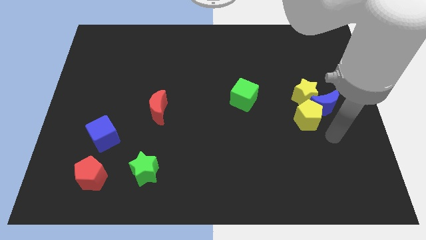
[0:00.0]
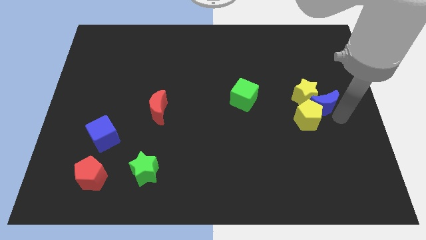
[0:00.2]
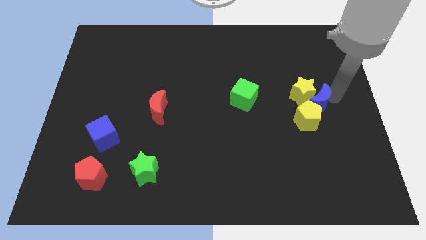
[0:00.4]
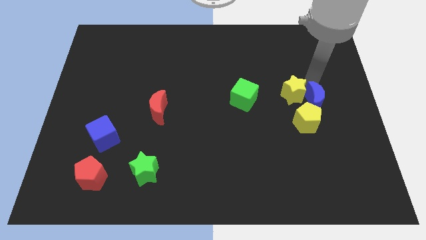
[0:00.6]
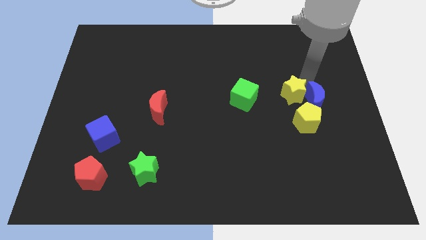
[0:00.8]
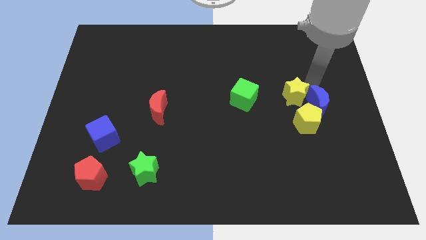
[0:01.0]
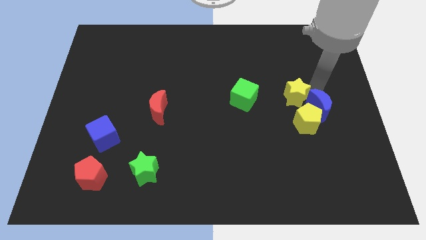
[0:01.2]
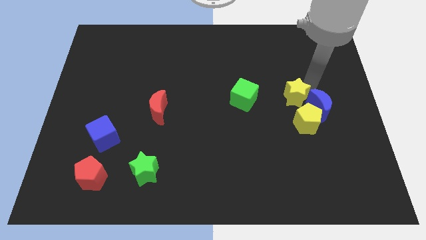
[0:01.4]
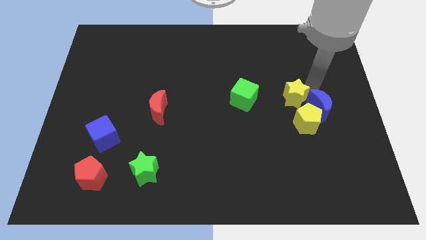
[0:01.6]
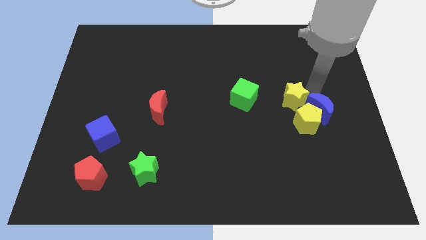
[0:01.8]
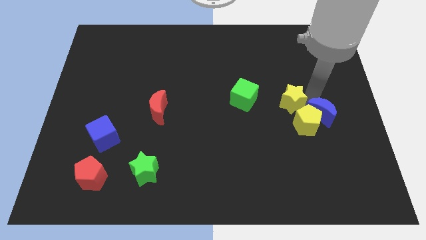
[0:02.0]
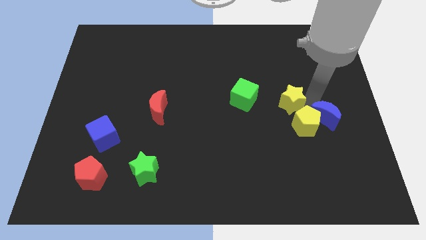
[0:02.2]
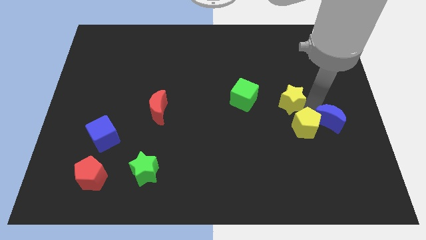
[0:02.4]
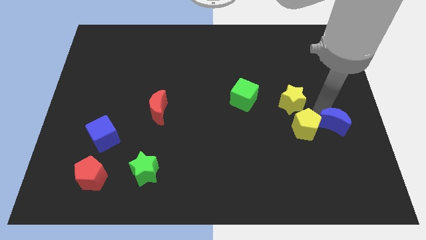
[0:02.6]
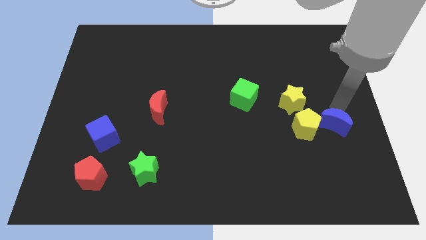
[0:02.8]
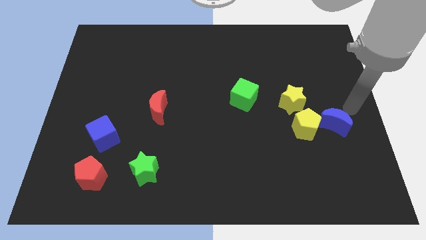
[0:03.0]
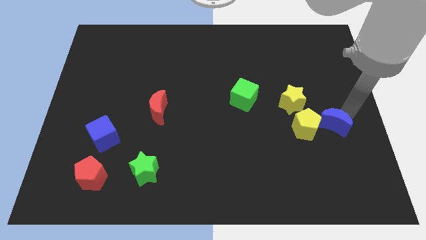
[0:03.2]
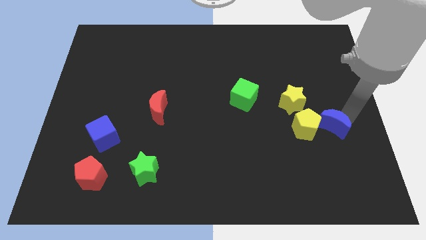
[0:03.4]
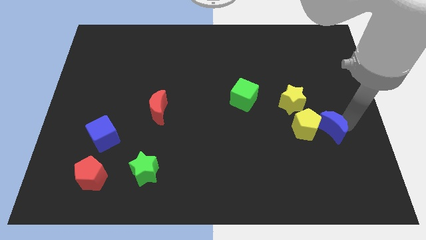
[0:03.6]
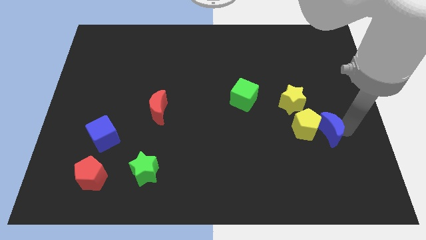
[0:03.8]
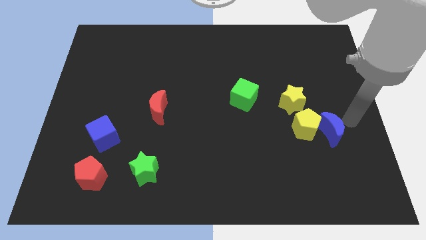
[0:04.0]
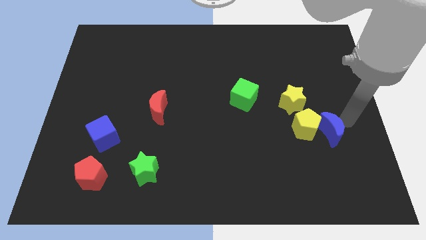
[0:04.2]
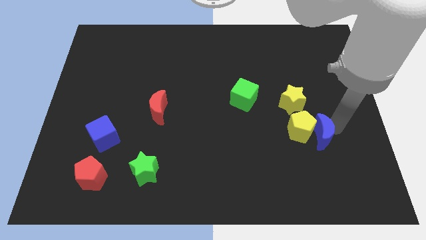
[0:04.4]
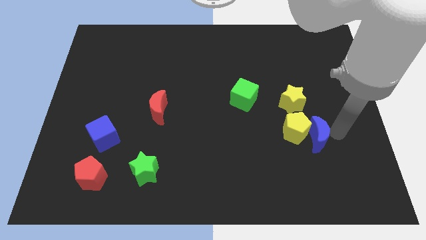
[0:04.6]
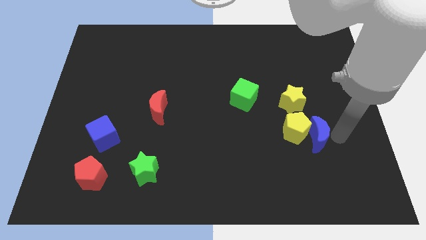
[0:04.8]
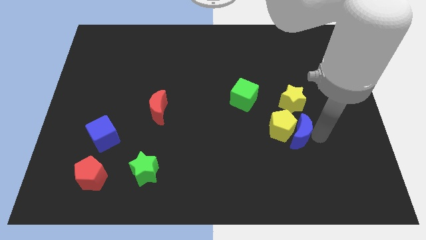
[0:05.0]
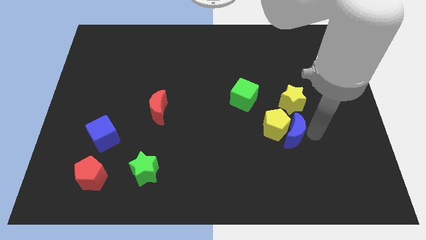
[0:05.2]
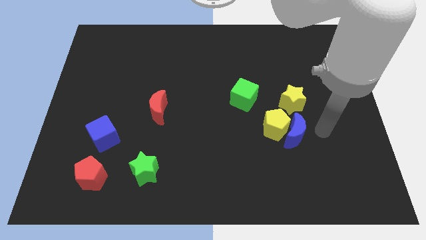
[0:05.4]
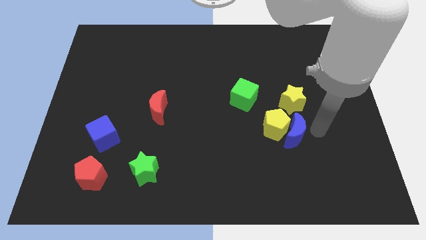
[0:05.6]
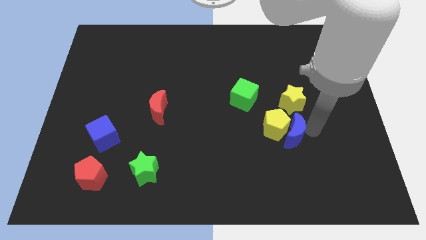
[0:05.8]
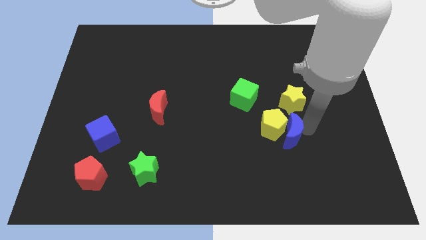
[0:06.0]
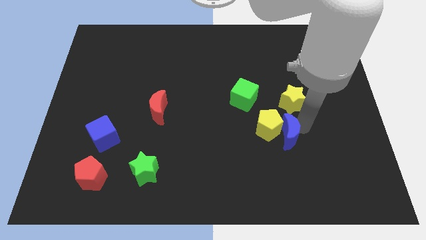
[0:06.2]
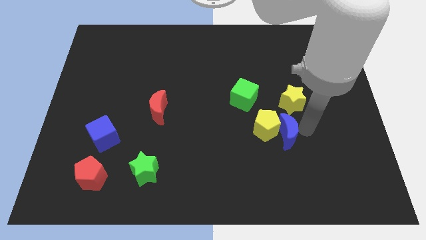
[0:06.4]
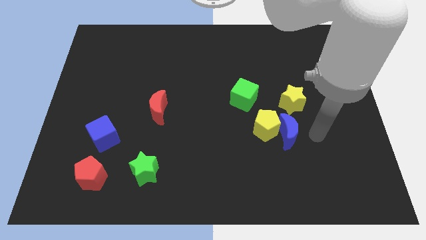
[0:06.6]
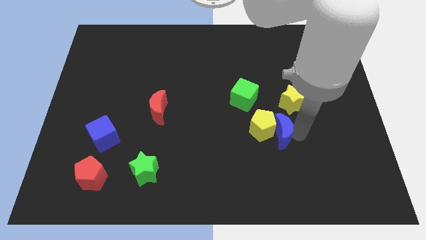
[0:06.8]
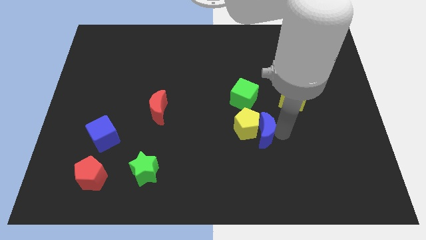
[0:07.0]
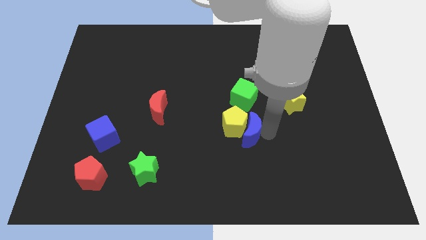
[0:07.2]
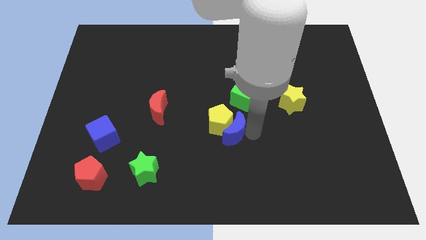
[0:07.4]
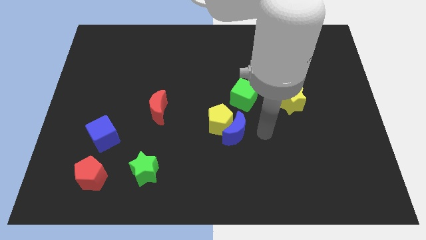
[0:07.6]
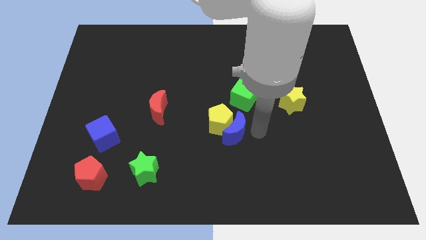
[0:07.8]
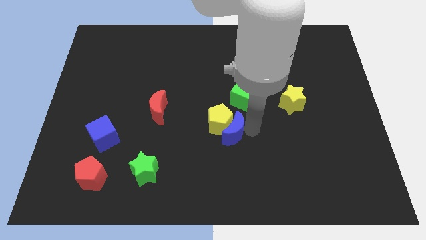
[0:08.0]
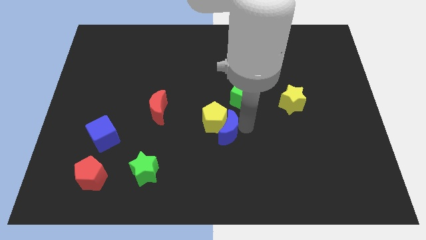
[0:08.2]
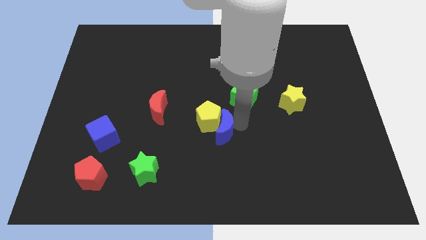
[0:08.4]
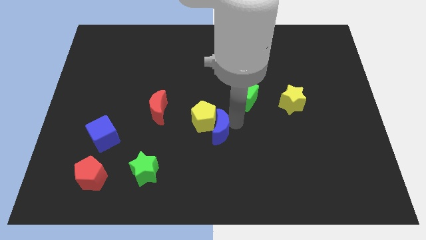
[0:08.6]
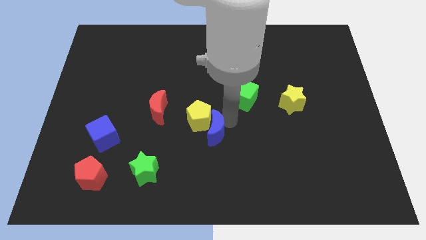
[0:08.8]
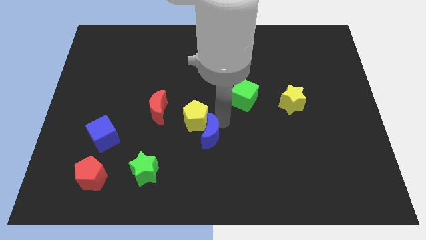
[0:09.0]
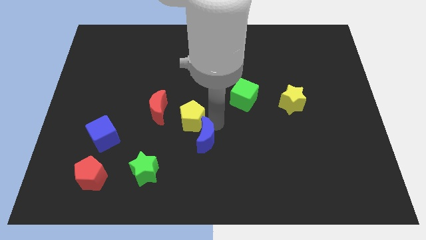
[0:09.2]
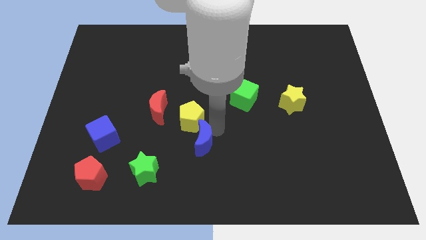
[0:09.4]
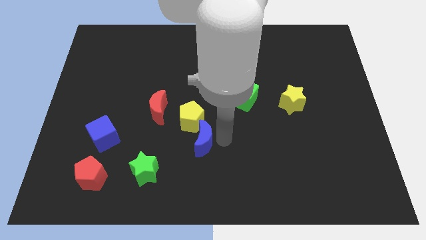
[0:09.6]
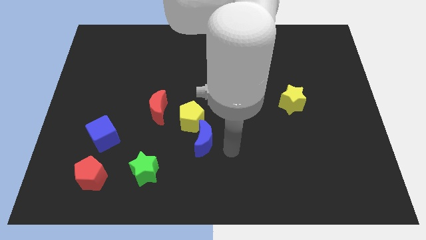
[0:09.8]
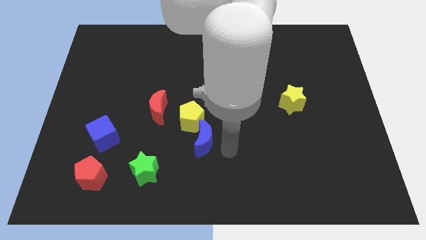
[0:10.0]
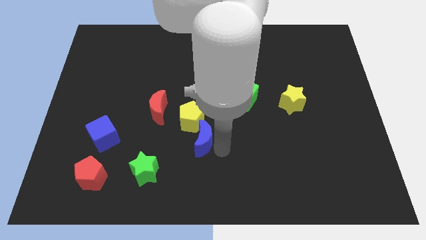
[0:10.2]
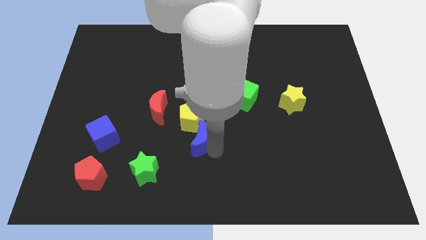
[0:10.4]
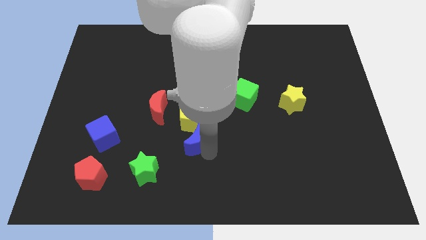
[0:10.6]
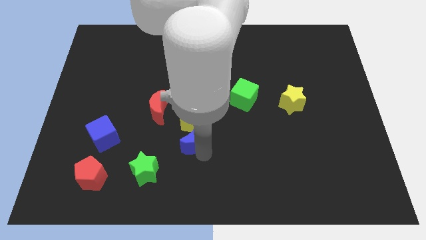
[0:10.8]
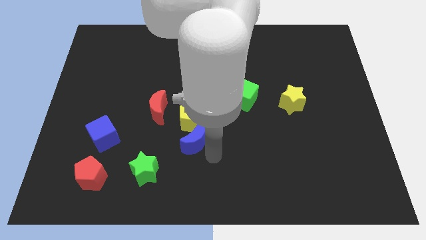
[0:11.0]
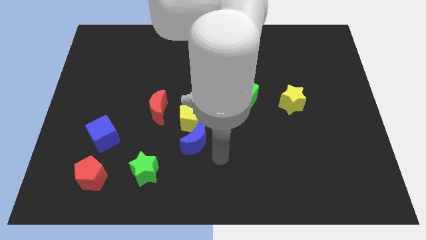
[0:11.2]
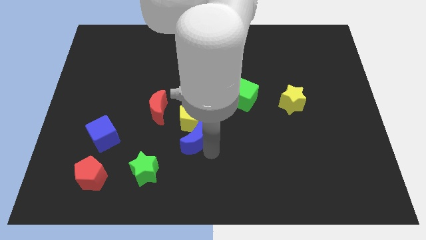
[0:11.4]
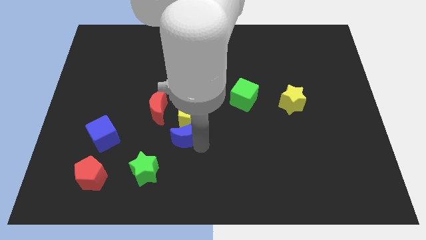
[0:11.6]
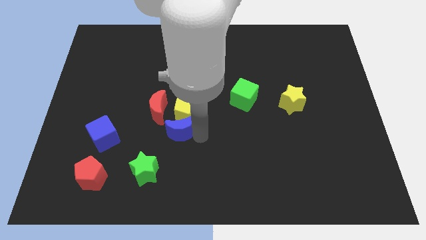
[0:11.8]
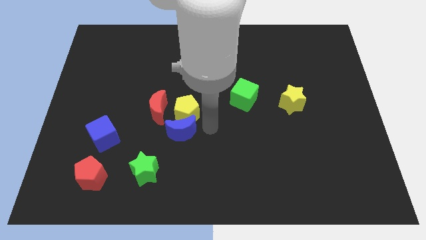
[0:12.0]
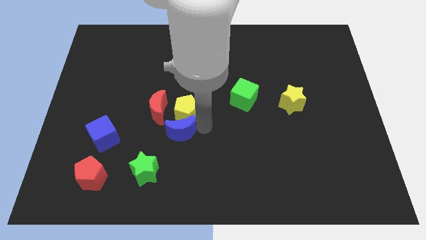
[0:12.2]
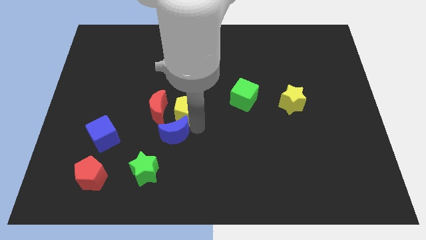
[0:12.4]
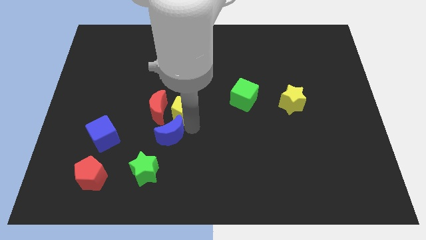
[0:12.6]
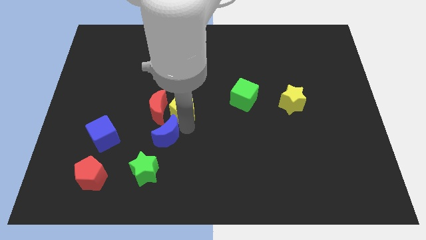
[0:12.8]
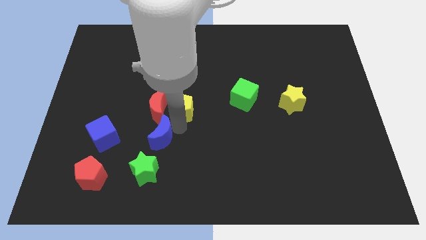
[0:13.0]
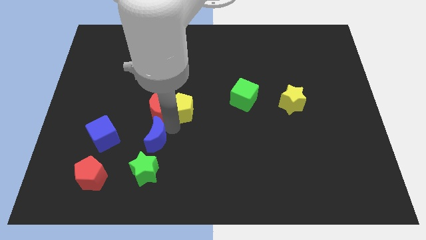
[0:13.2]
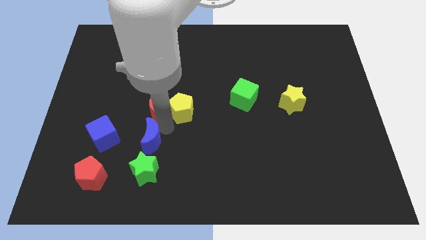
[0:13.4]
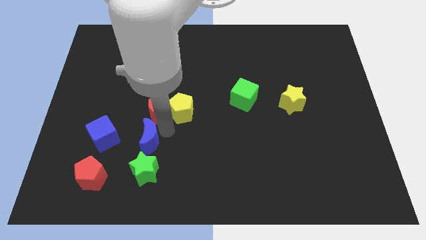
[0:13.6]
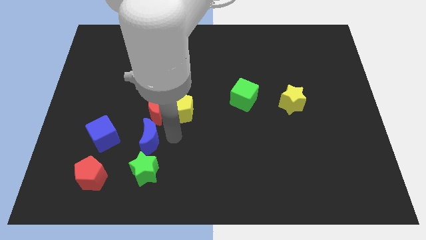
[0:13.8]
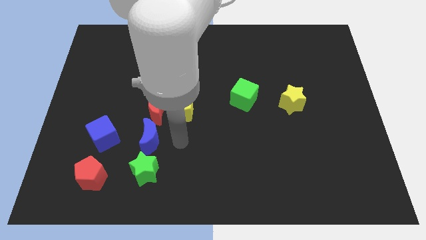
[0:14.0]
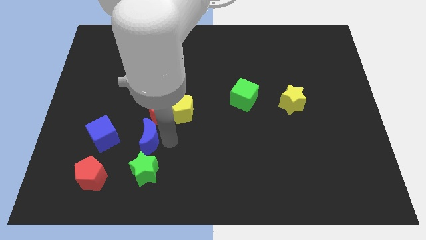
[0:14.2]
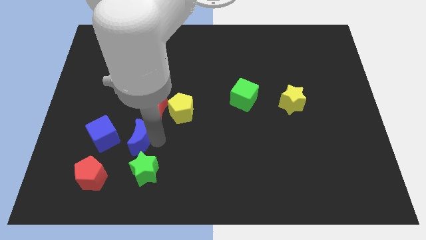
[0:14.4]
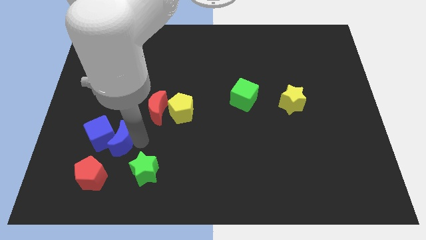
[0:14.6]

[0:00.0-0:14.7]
push the blue moon towards the blue cube
